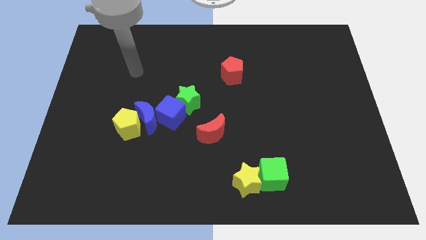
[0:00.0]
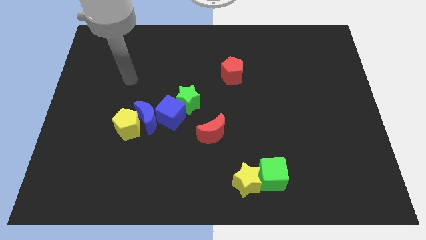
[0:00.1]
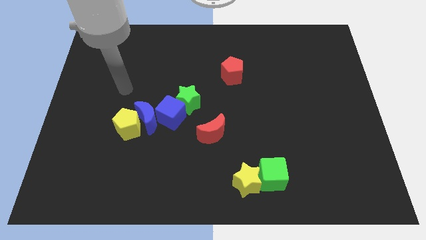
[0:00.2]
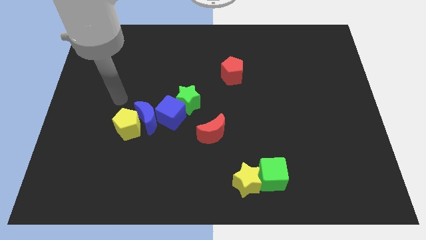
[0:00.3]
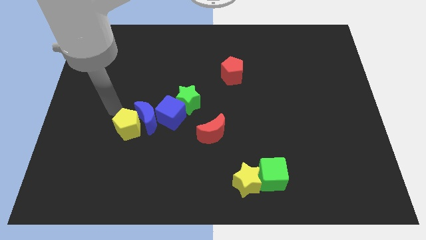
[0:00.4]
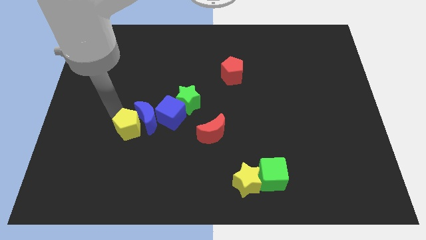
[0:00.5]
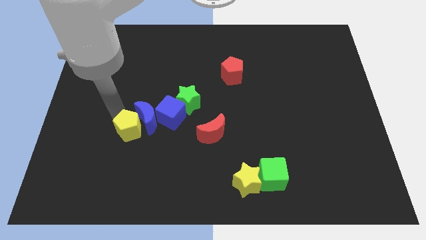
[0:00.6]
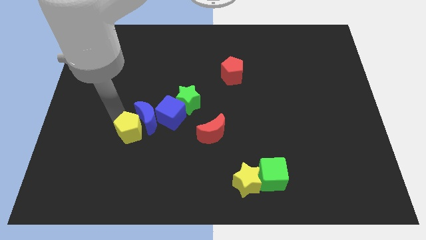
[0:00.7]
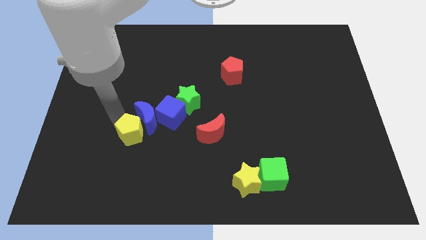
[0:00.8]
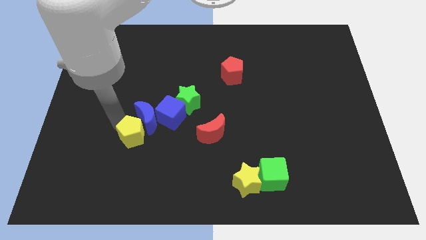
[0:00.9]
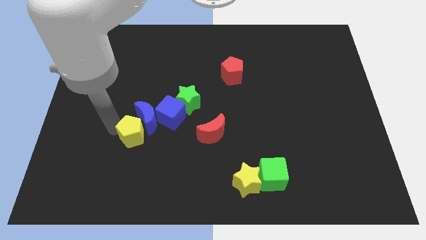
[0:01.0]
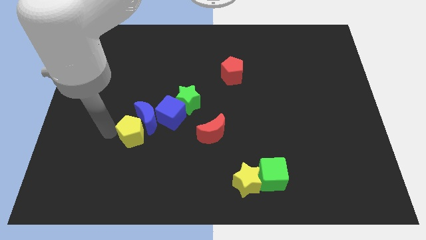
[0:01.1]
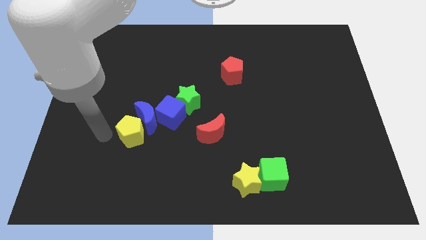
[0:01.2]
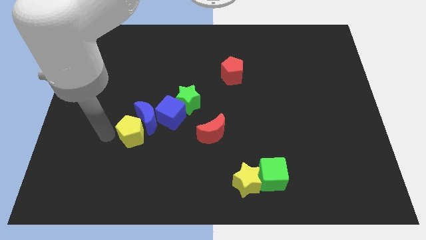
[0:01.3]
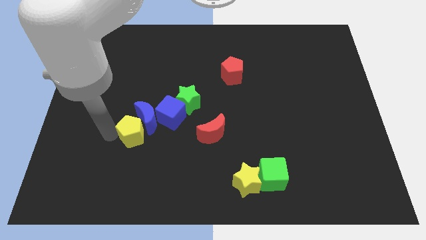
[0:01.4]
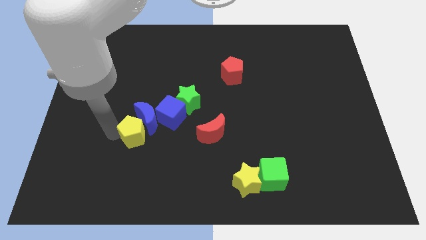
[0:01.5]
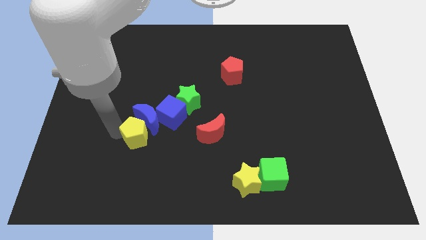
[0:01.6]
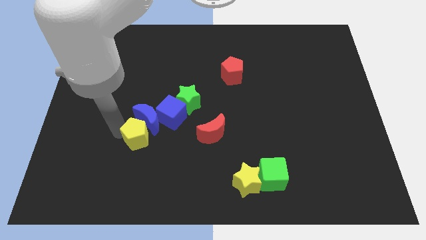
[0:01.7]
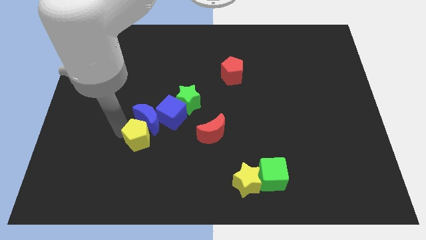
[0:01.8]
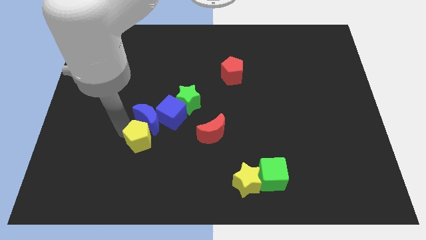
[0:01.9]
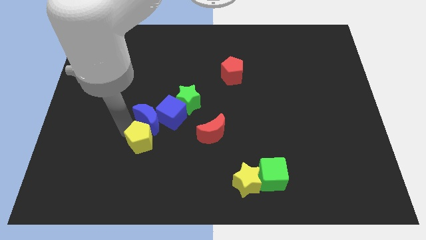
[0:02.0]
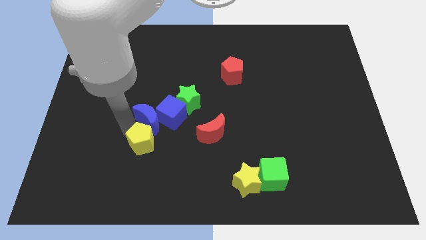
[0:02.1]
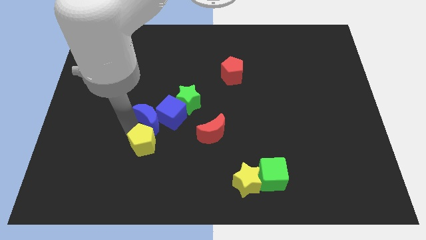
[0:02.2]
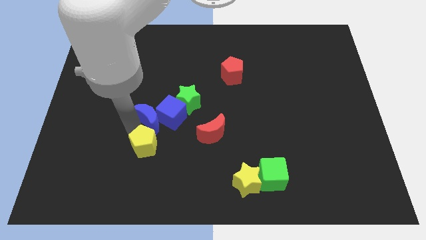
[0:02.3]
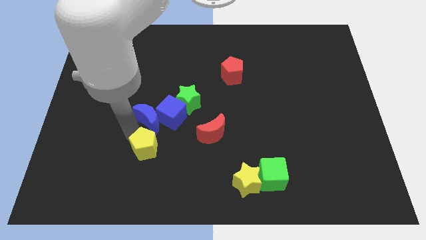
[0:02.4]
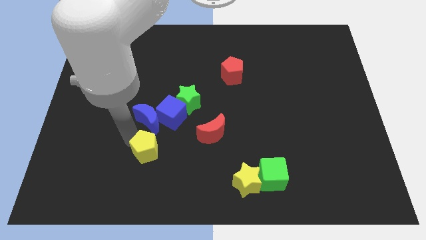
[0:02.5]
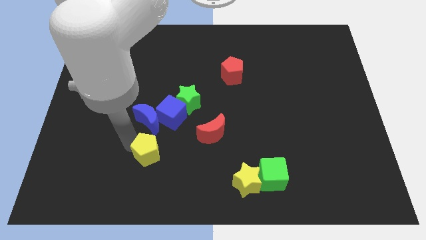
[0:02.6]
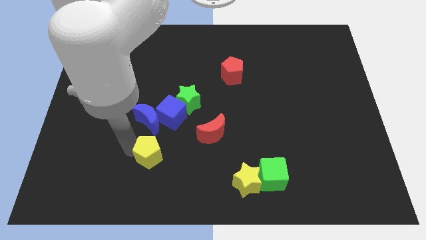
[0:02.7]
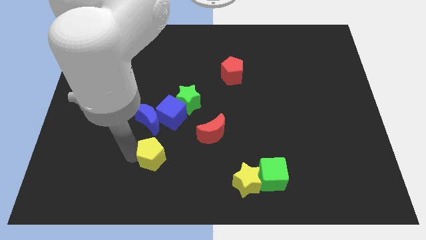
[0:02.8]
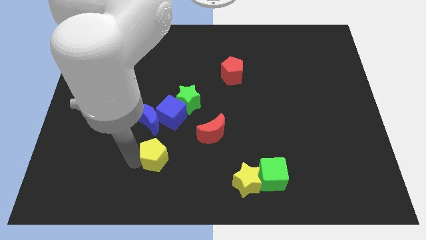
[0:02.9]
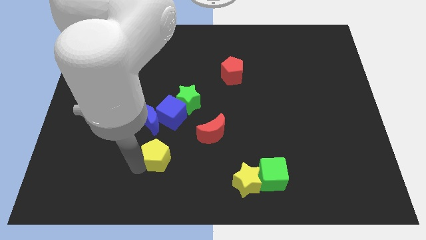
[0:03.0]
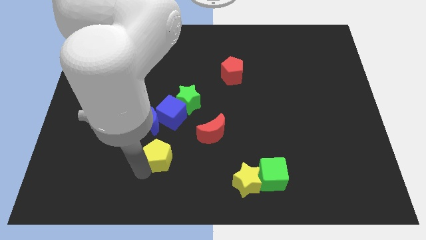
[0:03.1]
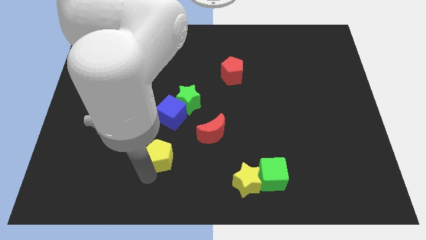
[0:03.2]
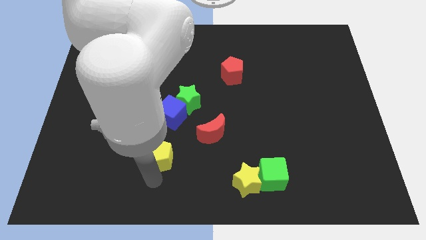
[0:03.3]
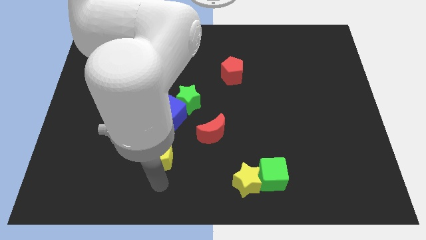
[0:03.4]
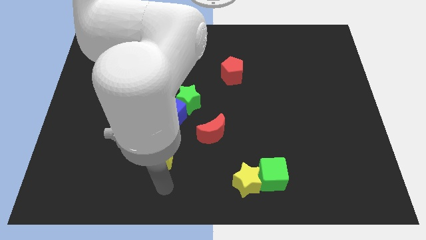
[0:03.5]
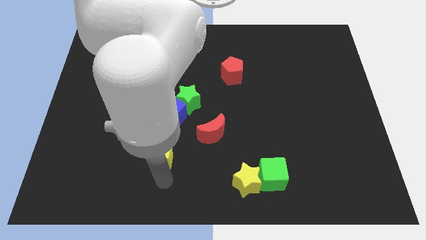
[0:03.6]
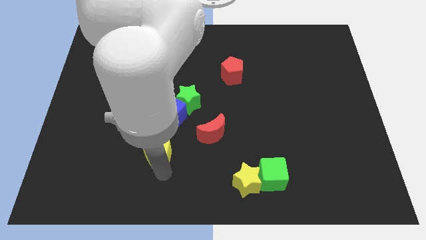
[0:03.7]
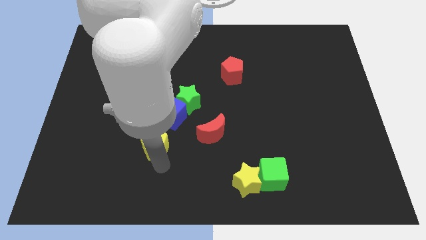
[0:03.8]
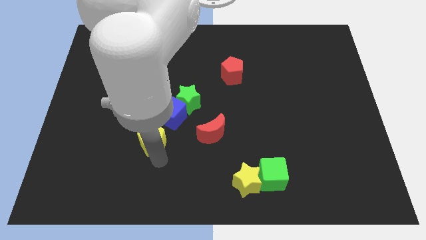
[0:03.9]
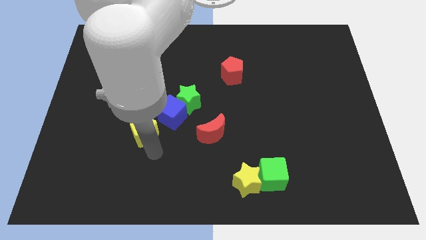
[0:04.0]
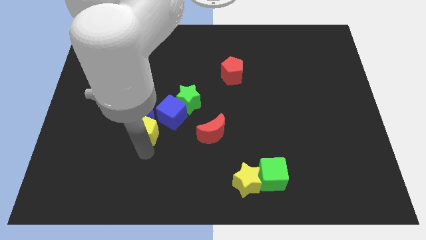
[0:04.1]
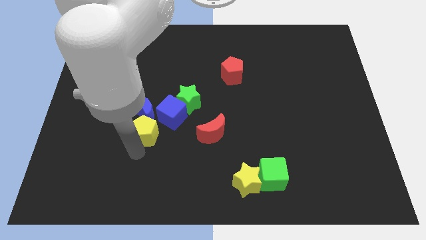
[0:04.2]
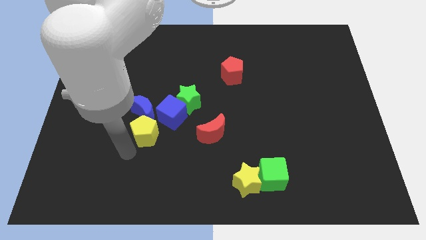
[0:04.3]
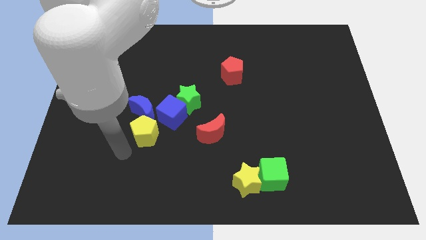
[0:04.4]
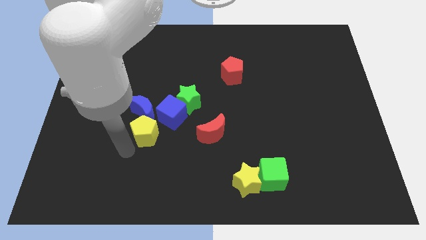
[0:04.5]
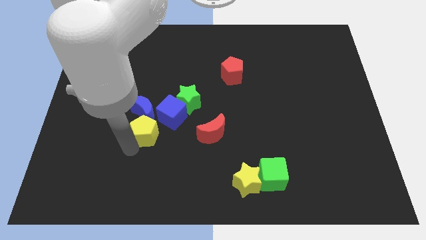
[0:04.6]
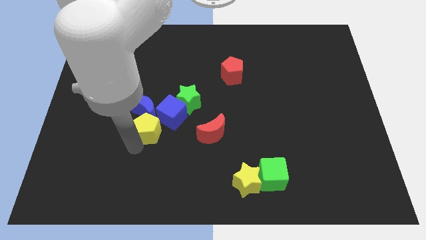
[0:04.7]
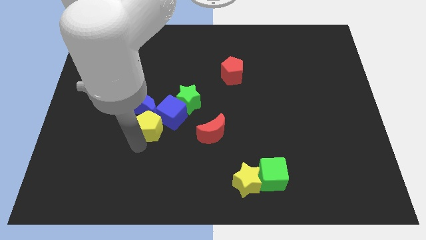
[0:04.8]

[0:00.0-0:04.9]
put the yellow pentagon close to the blue cube

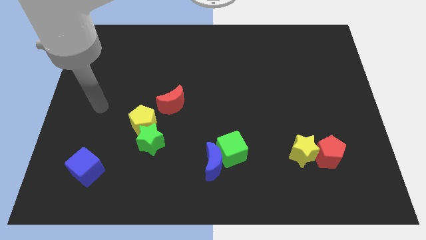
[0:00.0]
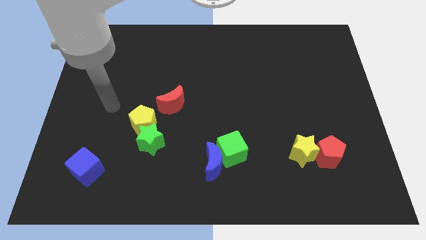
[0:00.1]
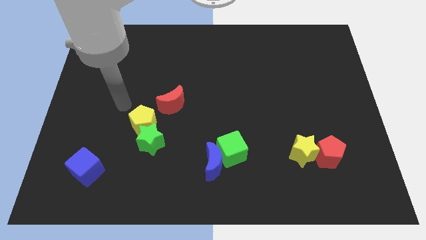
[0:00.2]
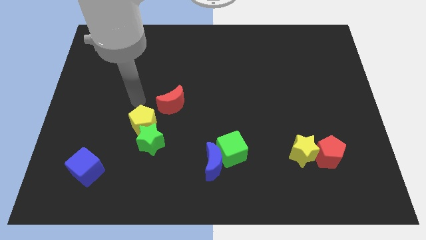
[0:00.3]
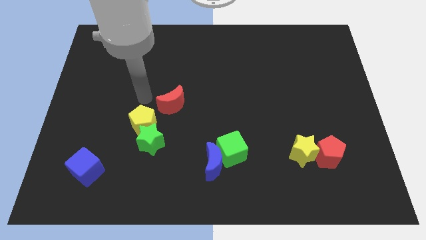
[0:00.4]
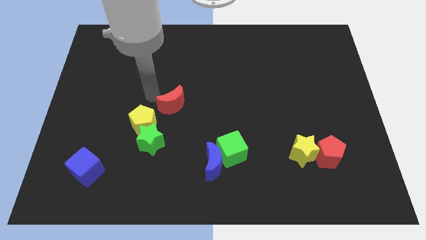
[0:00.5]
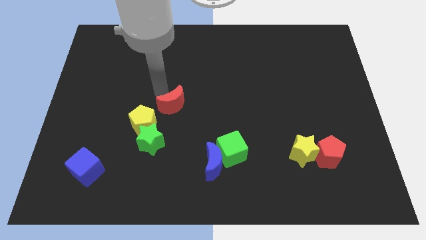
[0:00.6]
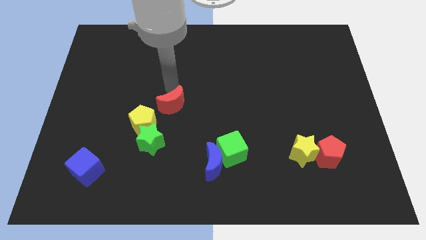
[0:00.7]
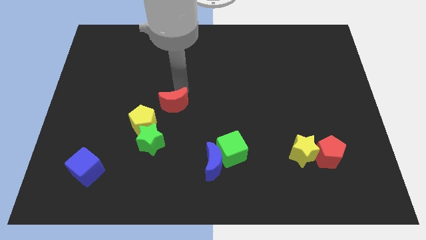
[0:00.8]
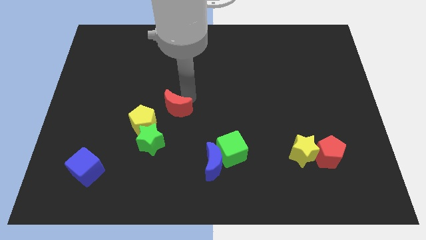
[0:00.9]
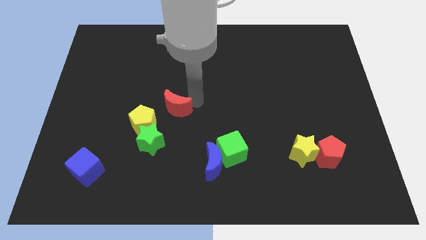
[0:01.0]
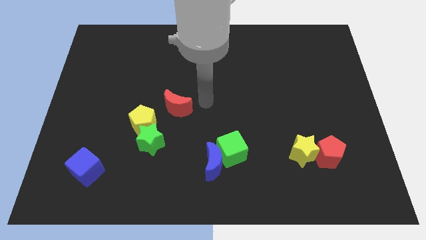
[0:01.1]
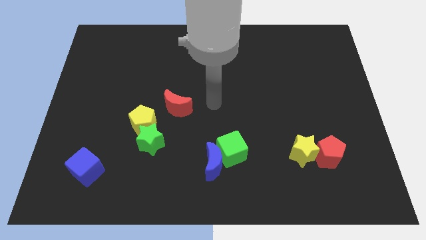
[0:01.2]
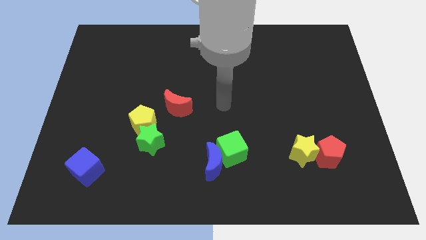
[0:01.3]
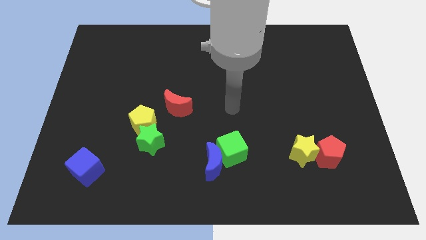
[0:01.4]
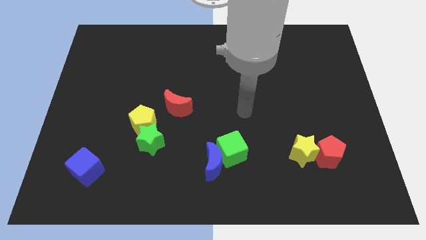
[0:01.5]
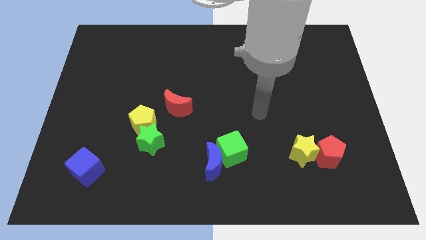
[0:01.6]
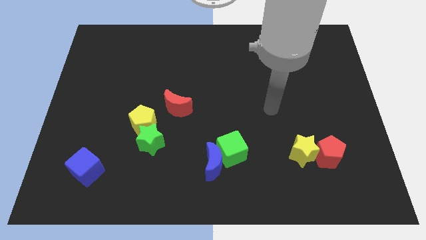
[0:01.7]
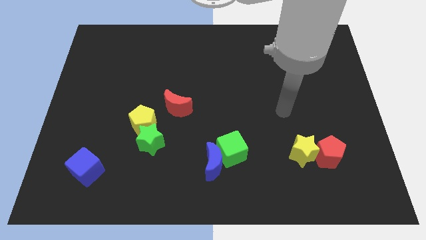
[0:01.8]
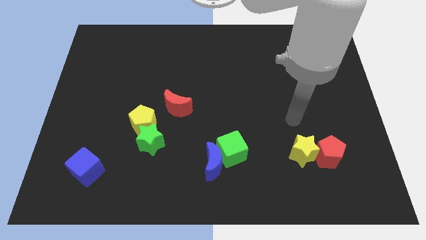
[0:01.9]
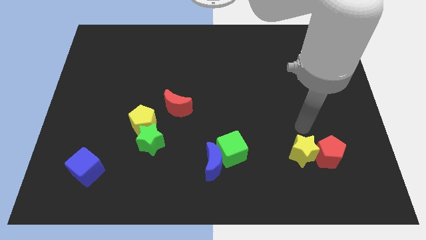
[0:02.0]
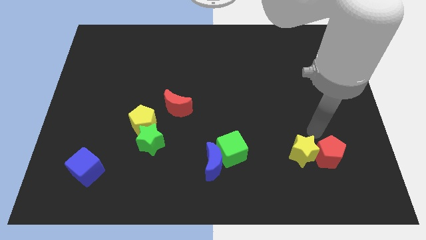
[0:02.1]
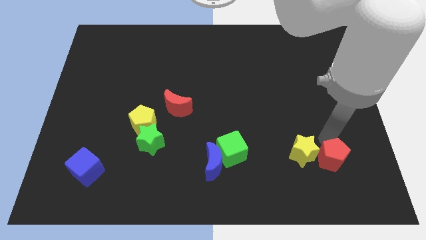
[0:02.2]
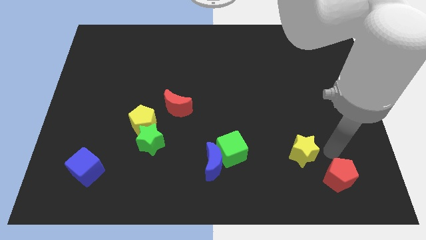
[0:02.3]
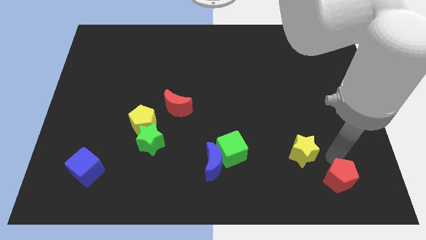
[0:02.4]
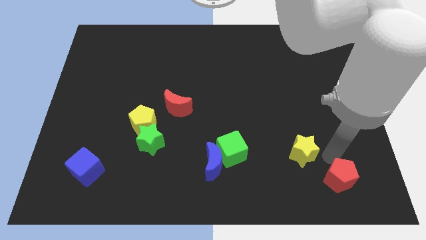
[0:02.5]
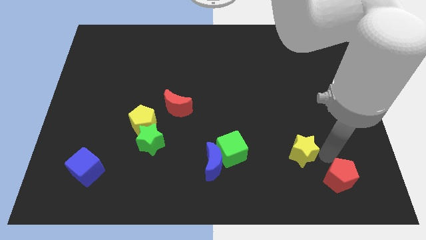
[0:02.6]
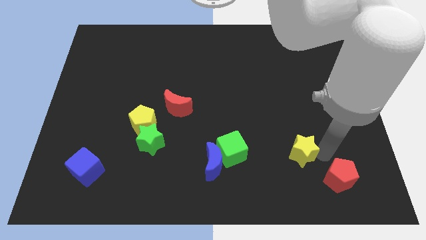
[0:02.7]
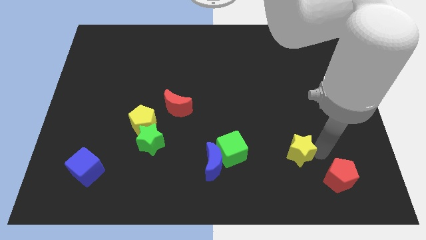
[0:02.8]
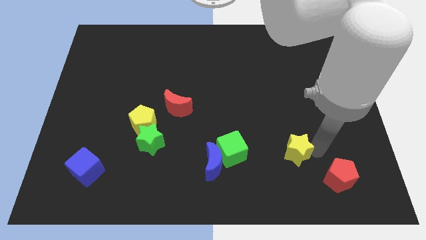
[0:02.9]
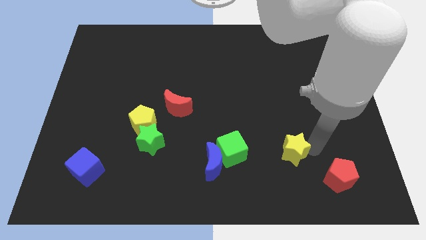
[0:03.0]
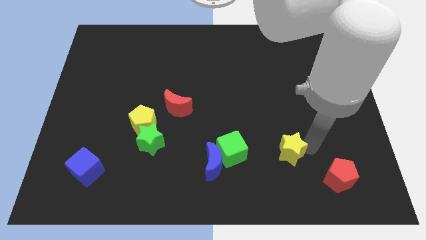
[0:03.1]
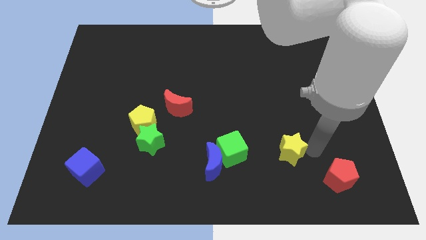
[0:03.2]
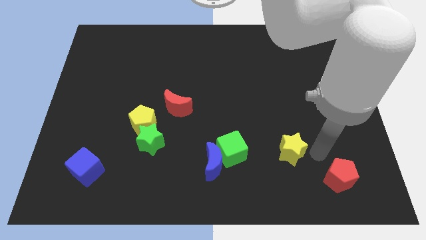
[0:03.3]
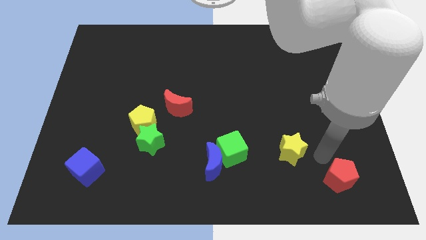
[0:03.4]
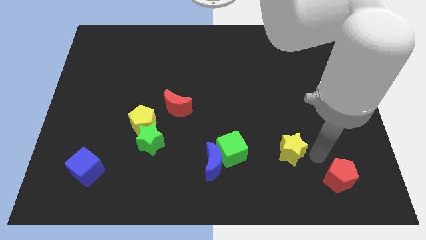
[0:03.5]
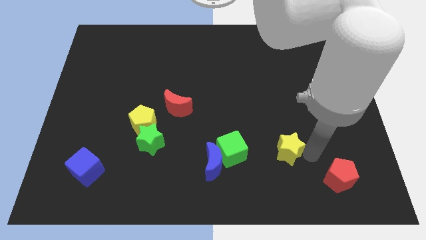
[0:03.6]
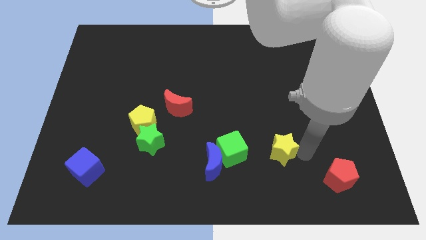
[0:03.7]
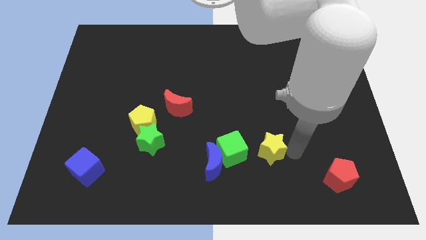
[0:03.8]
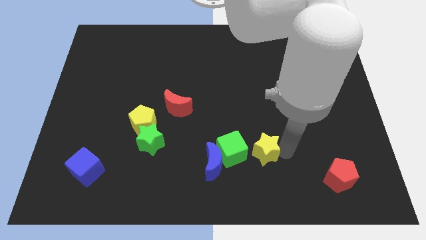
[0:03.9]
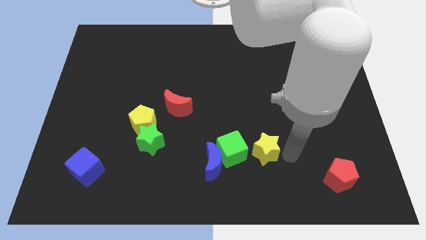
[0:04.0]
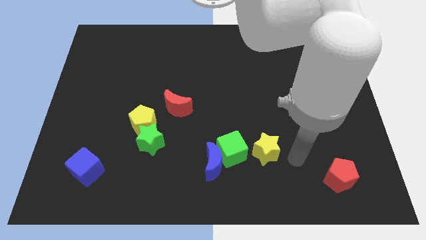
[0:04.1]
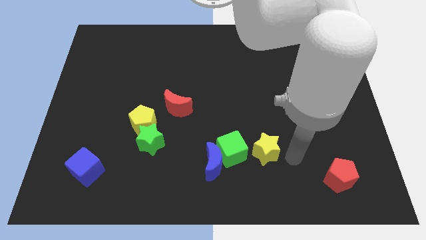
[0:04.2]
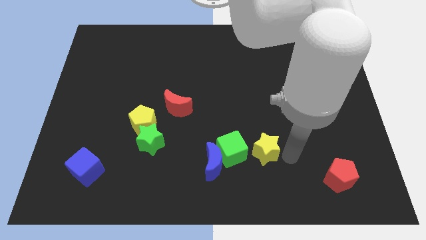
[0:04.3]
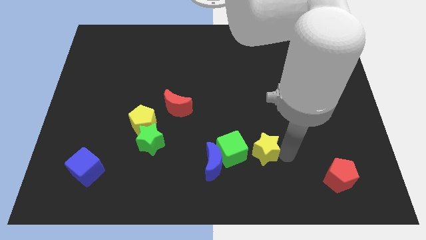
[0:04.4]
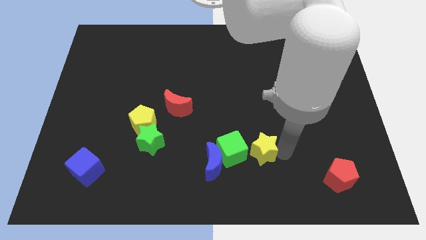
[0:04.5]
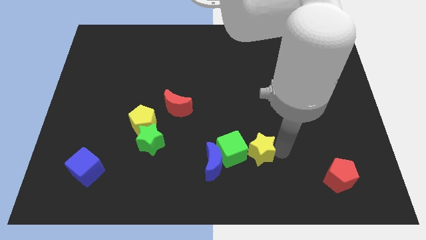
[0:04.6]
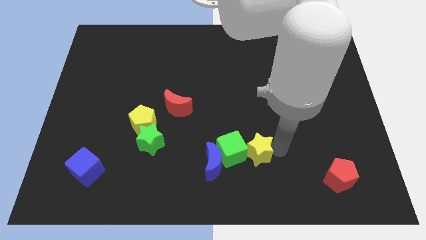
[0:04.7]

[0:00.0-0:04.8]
put the yellow star to the green cube
